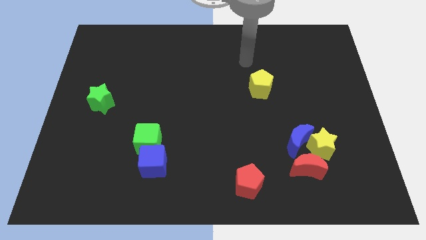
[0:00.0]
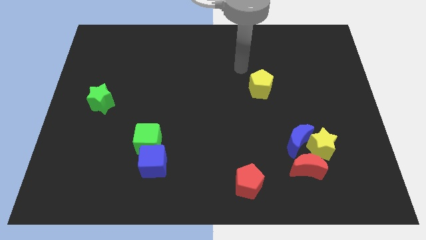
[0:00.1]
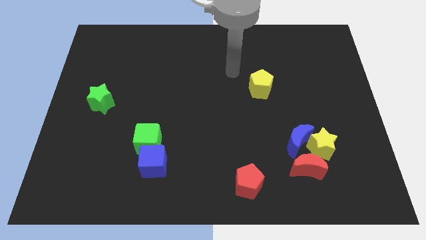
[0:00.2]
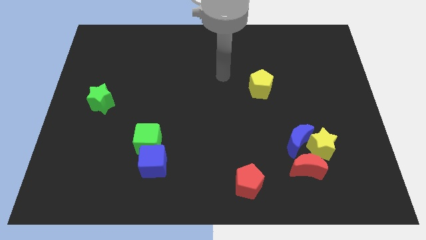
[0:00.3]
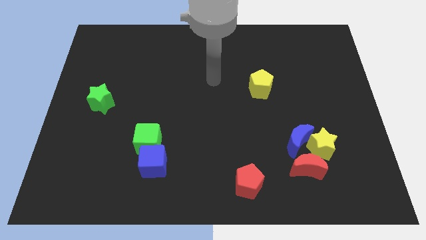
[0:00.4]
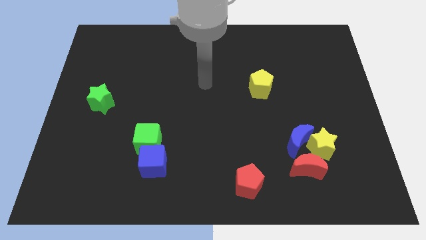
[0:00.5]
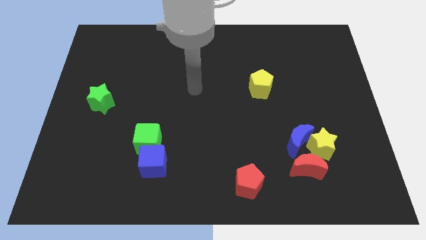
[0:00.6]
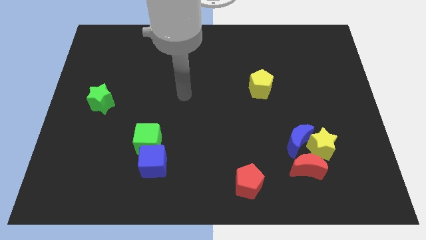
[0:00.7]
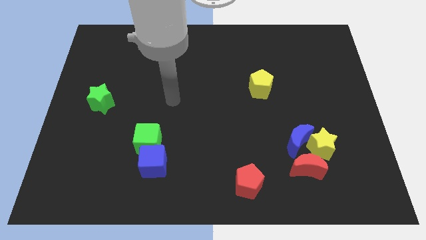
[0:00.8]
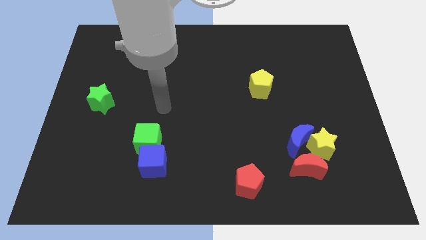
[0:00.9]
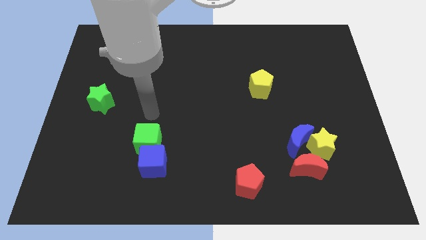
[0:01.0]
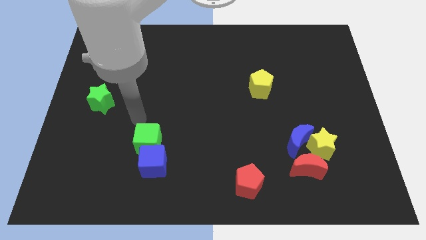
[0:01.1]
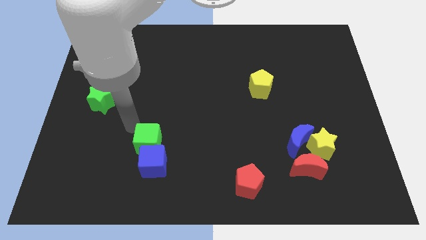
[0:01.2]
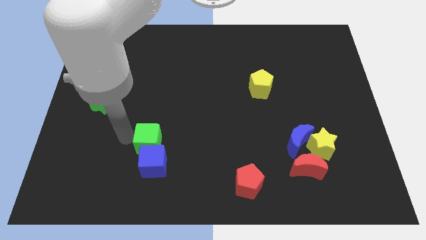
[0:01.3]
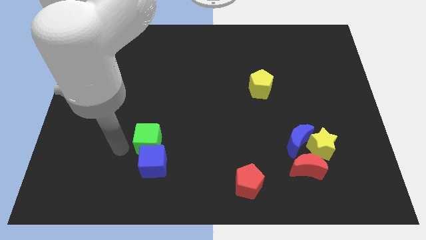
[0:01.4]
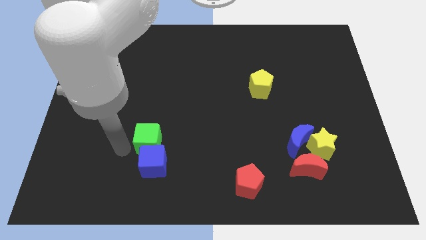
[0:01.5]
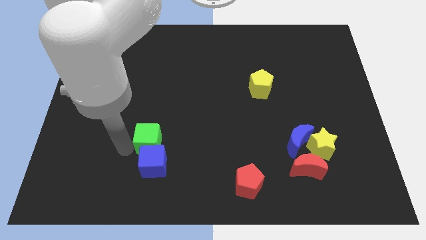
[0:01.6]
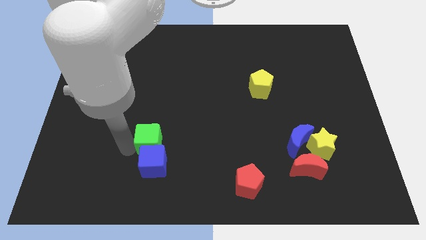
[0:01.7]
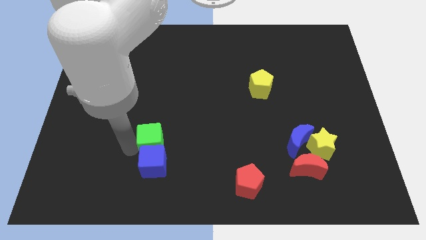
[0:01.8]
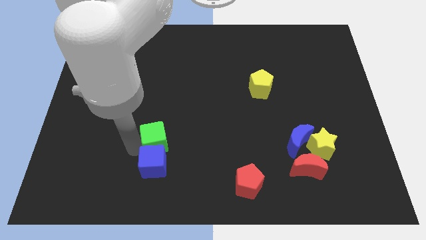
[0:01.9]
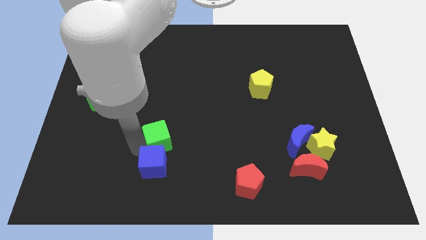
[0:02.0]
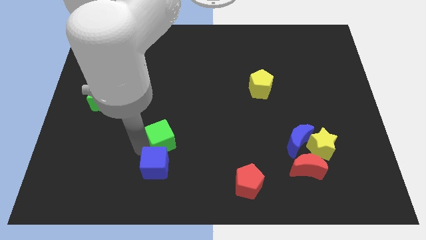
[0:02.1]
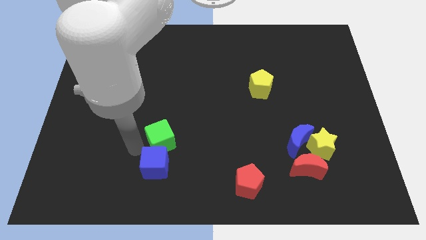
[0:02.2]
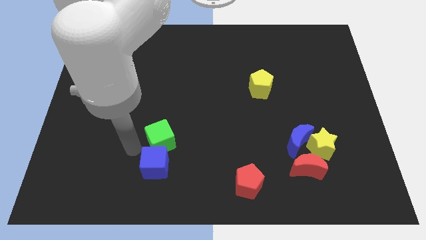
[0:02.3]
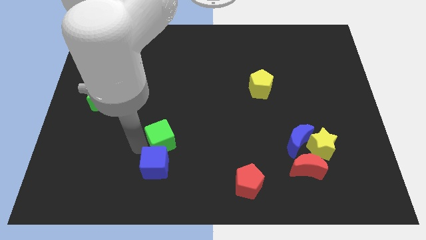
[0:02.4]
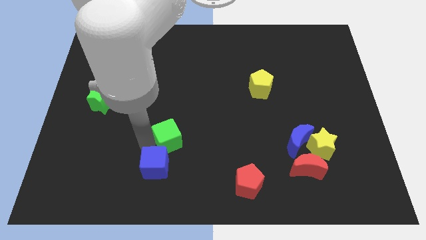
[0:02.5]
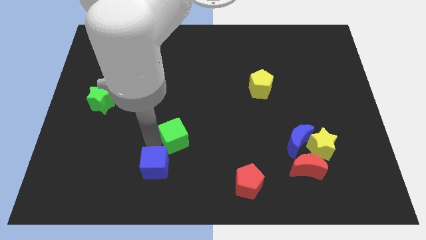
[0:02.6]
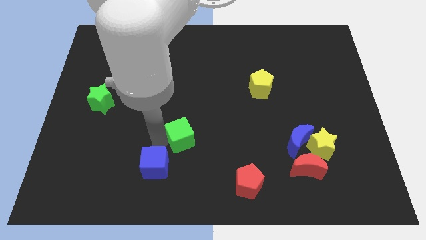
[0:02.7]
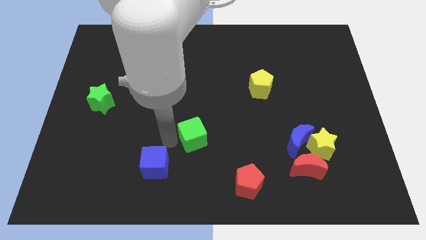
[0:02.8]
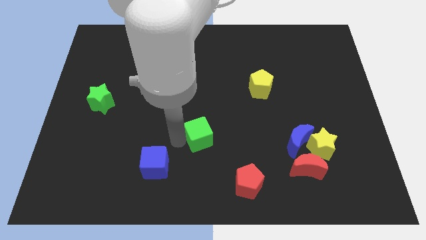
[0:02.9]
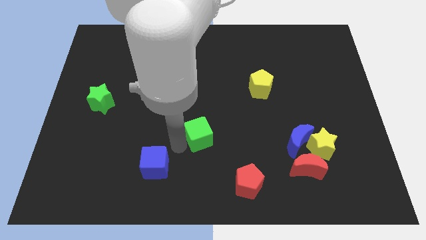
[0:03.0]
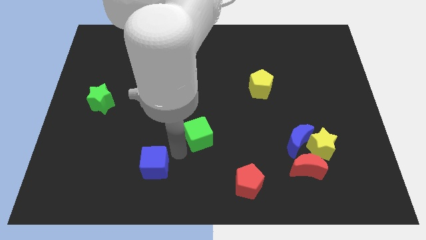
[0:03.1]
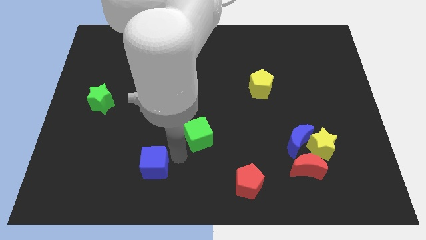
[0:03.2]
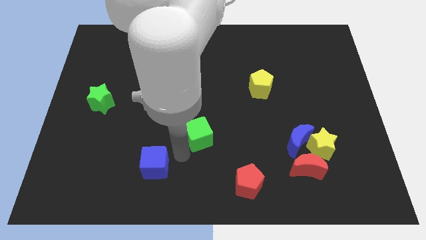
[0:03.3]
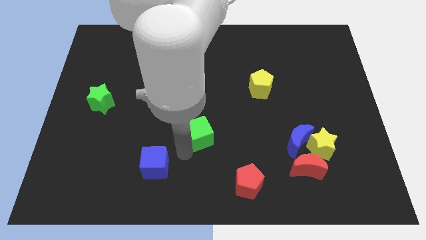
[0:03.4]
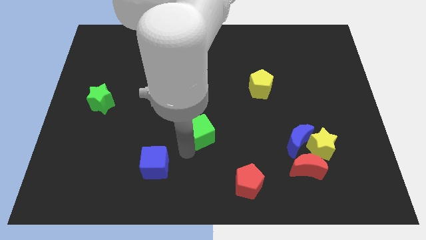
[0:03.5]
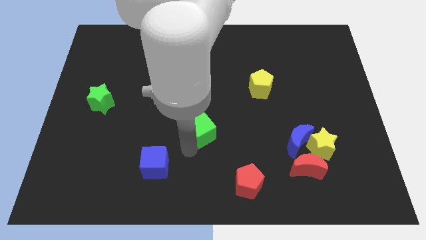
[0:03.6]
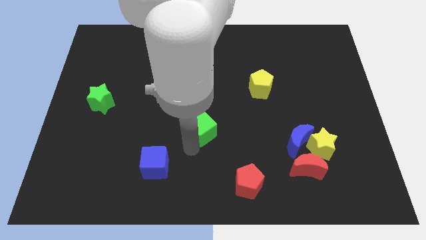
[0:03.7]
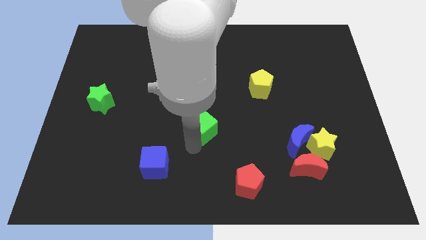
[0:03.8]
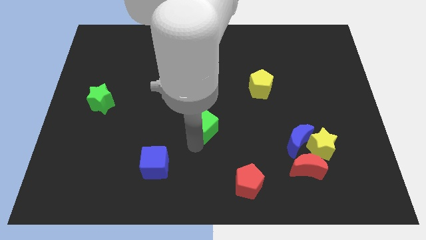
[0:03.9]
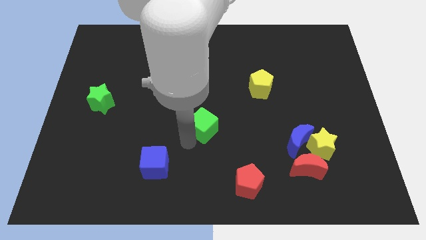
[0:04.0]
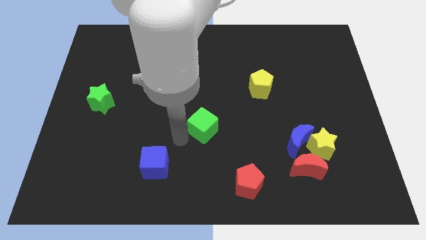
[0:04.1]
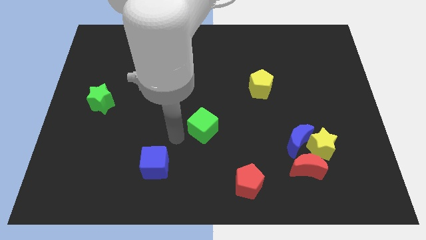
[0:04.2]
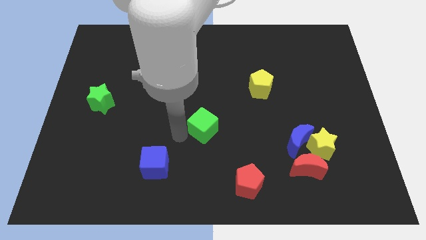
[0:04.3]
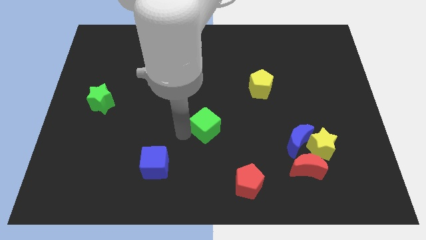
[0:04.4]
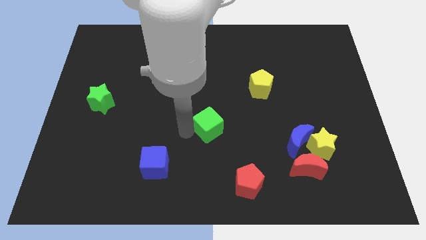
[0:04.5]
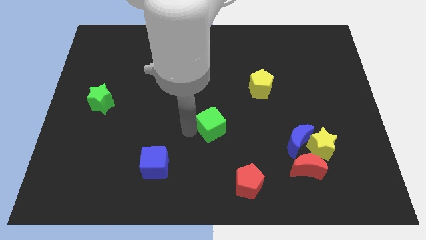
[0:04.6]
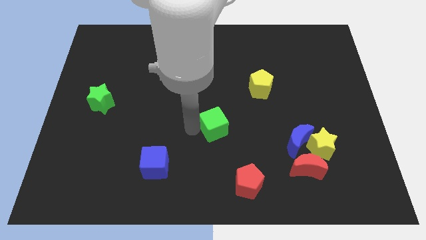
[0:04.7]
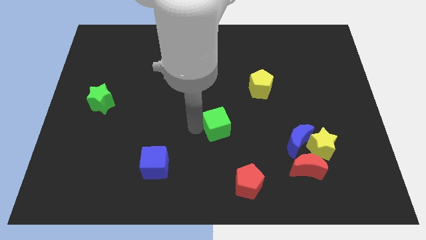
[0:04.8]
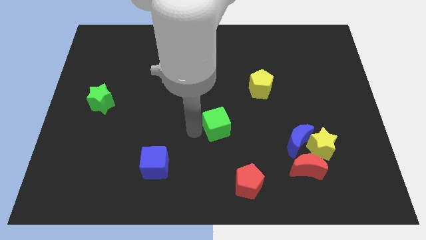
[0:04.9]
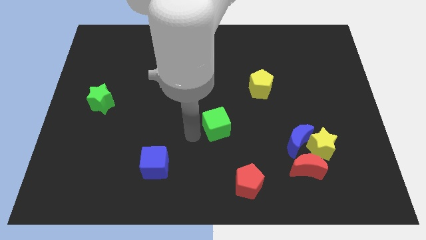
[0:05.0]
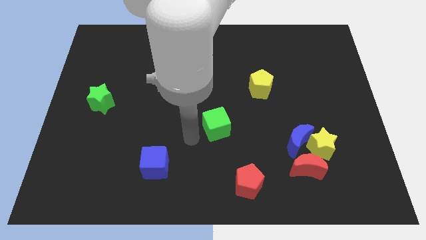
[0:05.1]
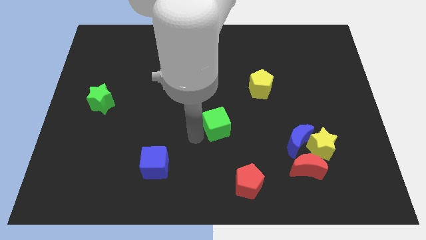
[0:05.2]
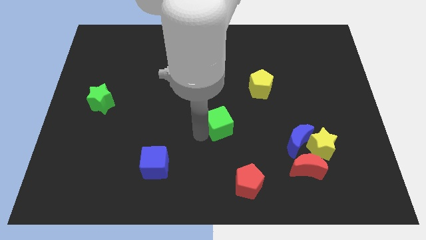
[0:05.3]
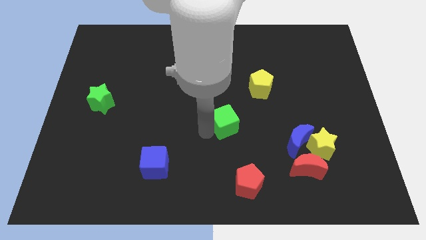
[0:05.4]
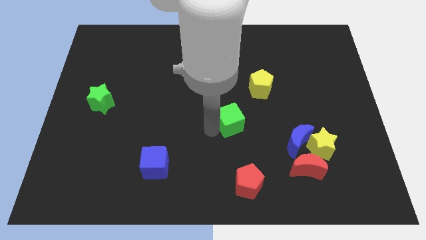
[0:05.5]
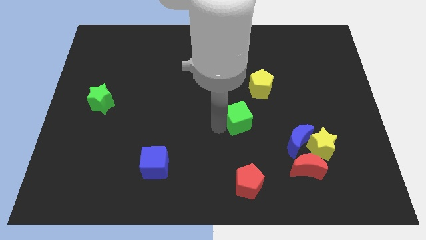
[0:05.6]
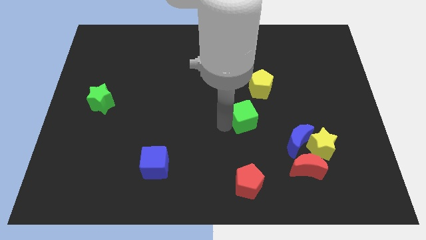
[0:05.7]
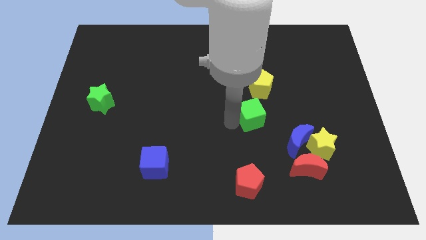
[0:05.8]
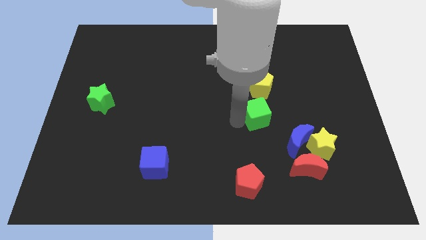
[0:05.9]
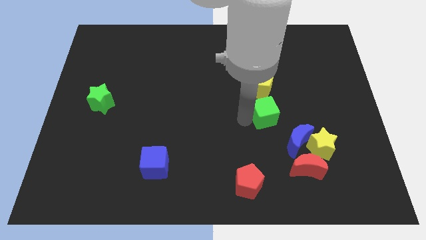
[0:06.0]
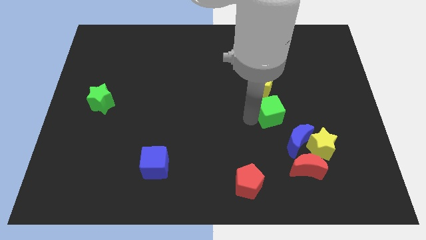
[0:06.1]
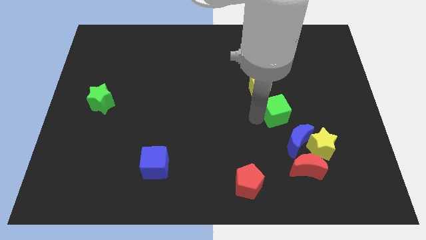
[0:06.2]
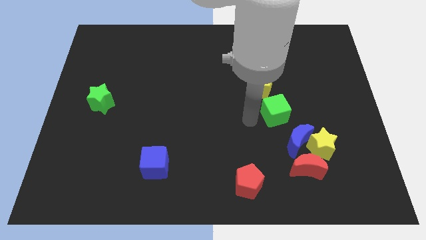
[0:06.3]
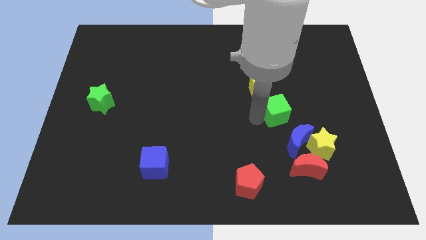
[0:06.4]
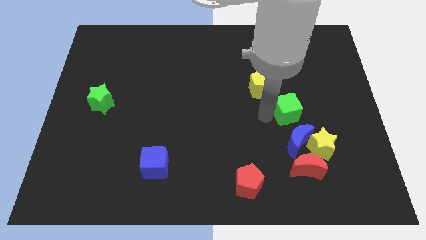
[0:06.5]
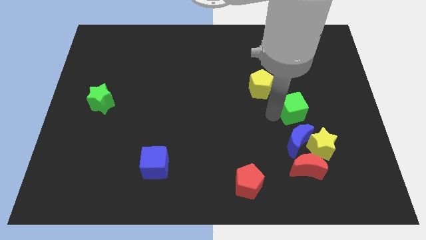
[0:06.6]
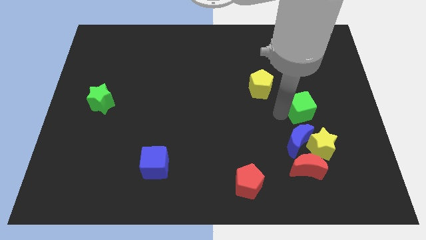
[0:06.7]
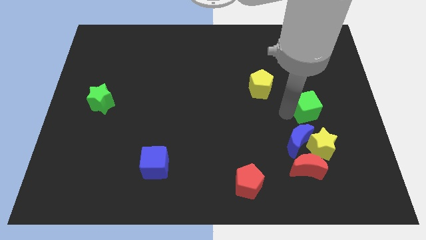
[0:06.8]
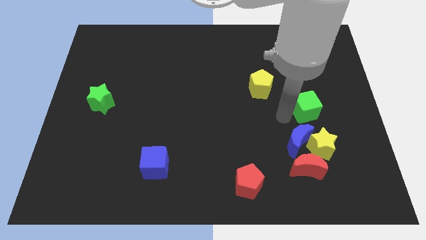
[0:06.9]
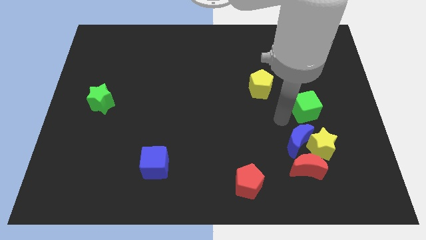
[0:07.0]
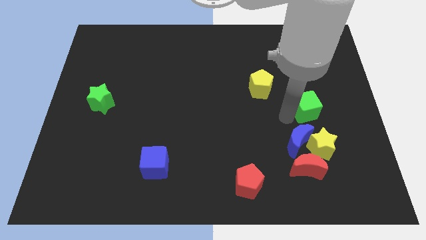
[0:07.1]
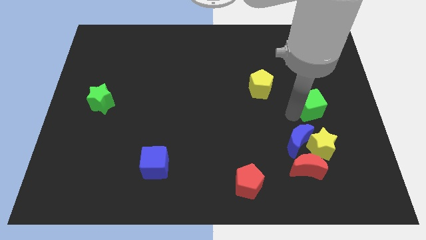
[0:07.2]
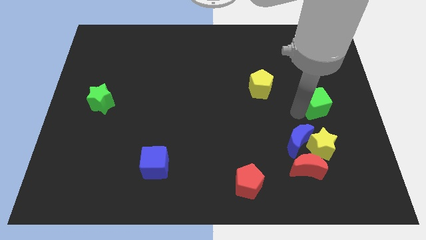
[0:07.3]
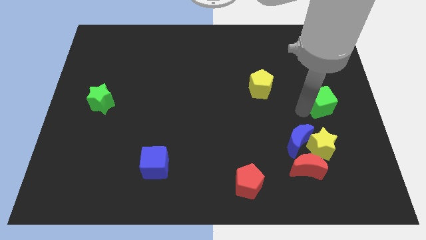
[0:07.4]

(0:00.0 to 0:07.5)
slide the green cube to the right side of the board

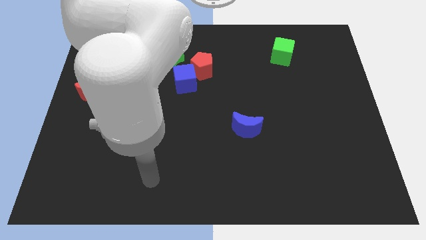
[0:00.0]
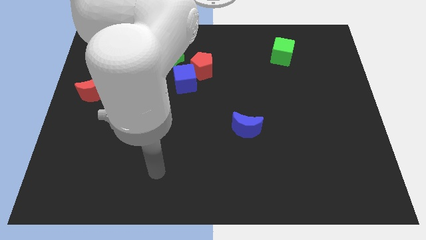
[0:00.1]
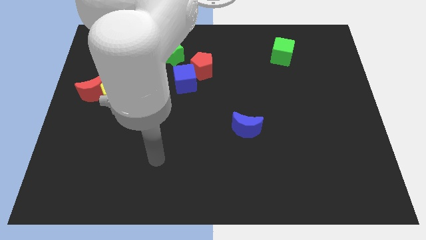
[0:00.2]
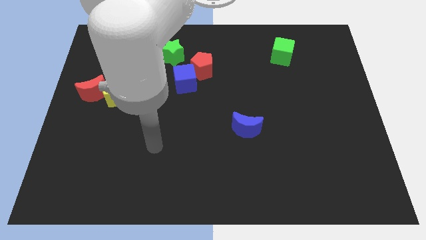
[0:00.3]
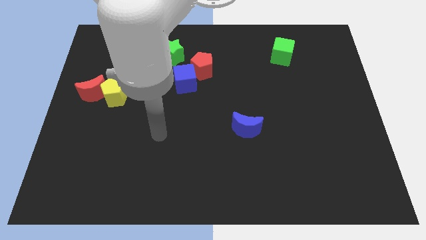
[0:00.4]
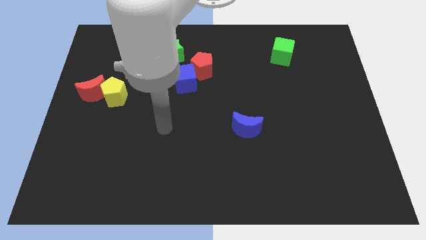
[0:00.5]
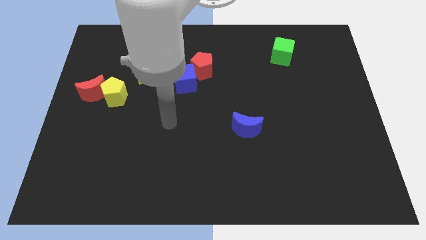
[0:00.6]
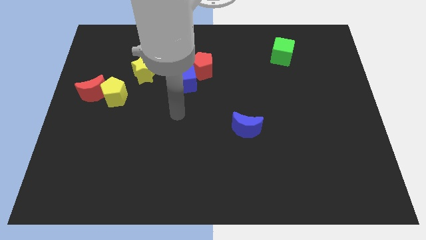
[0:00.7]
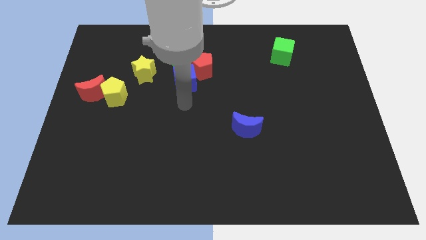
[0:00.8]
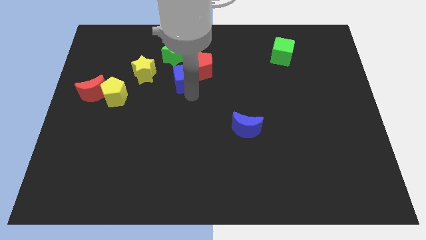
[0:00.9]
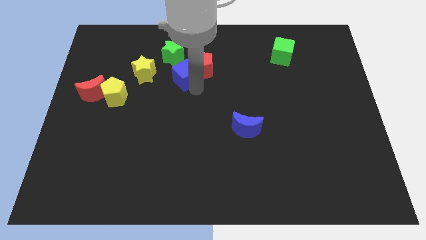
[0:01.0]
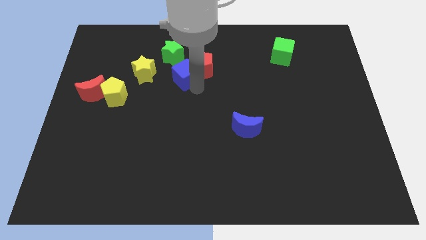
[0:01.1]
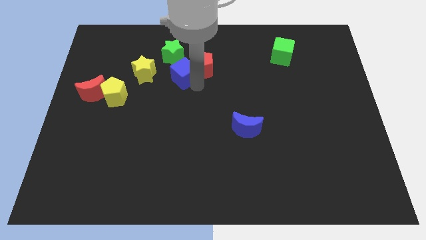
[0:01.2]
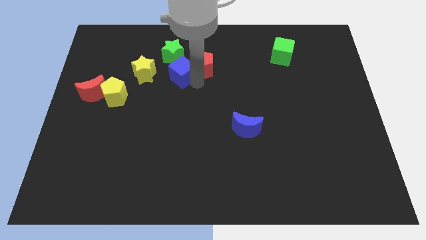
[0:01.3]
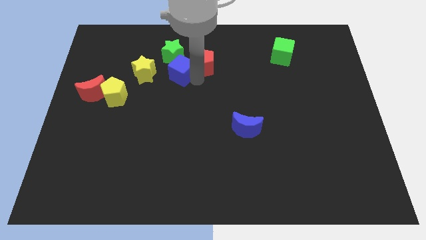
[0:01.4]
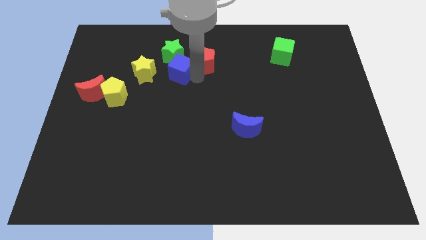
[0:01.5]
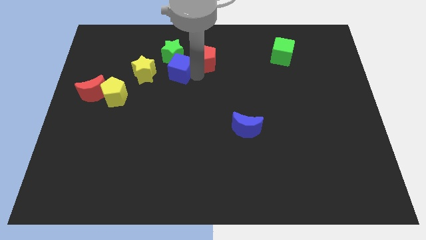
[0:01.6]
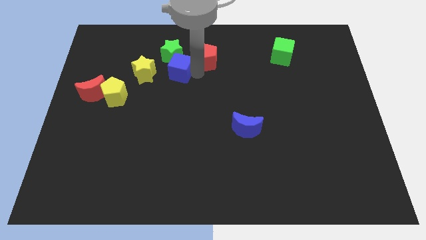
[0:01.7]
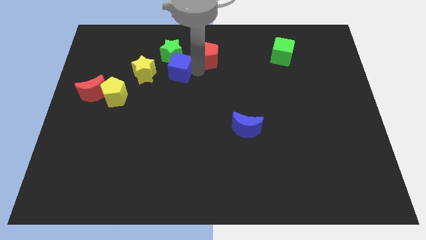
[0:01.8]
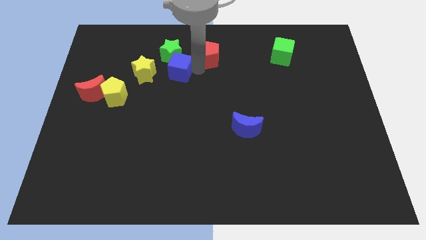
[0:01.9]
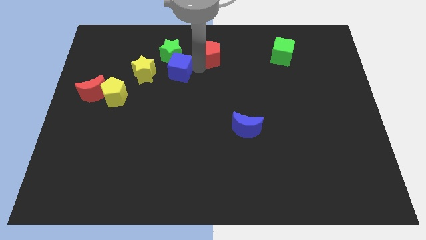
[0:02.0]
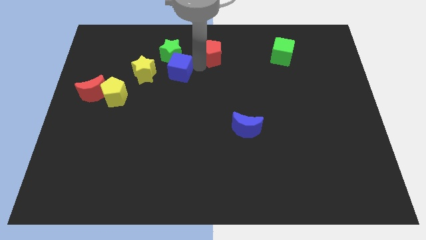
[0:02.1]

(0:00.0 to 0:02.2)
move the red pentagon to the top
